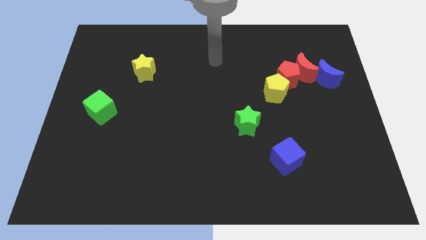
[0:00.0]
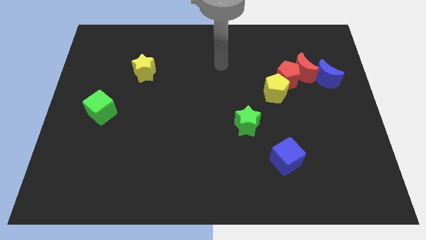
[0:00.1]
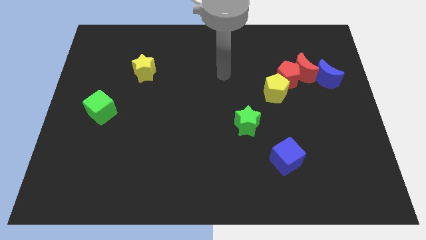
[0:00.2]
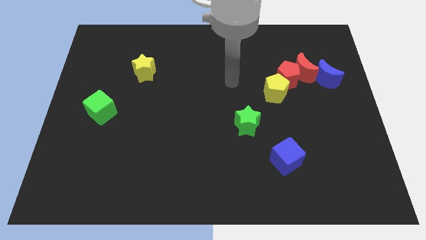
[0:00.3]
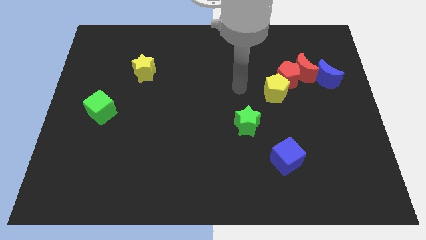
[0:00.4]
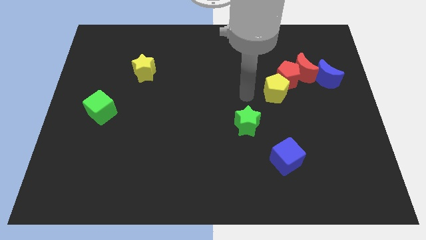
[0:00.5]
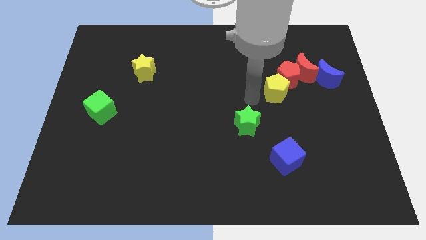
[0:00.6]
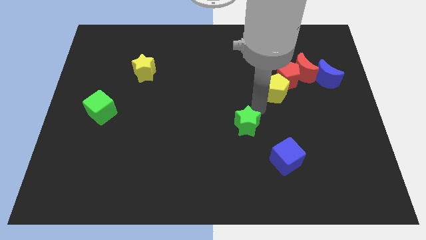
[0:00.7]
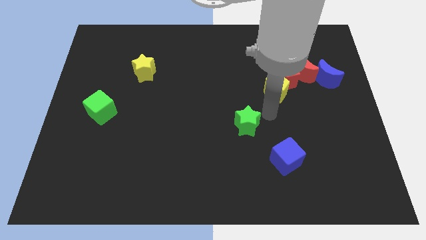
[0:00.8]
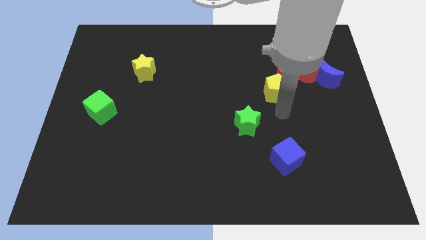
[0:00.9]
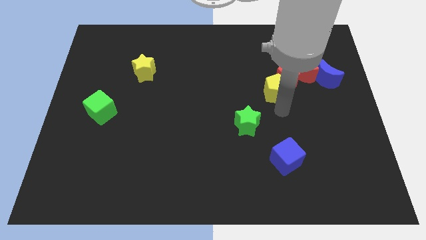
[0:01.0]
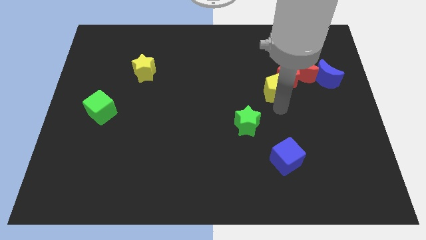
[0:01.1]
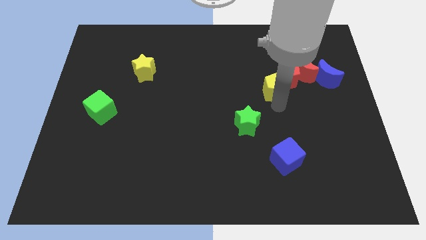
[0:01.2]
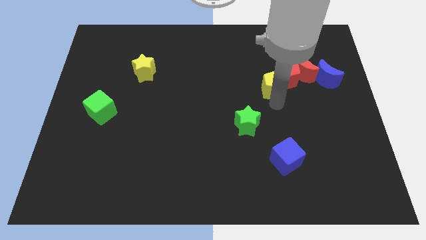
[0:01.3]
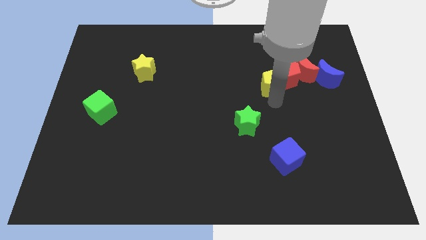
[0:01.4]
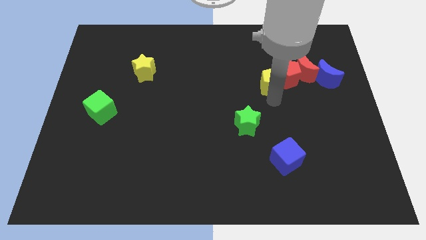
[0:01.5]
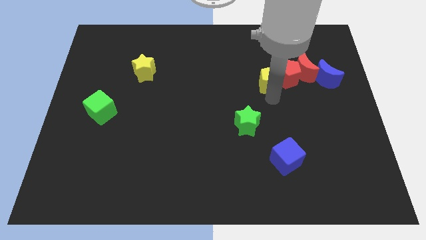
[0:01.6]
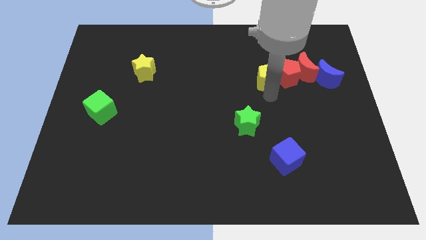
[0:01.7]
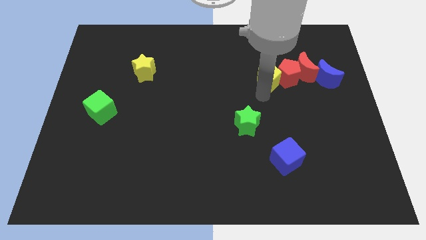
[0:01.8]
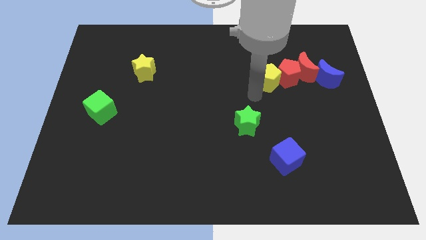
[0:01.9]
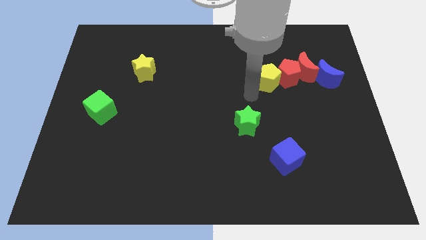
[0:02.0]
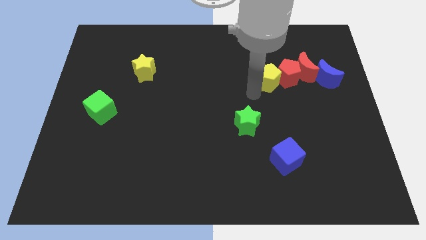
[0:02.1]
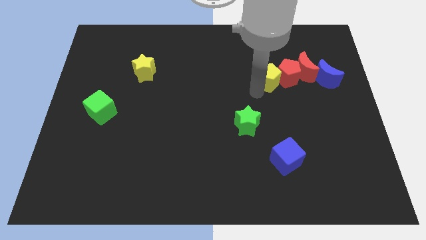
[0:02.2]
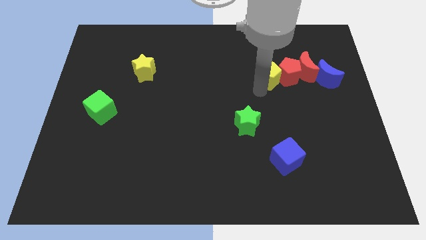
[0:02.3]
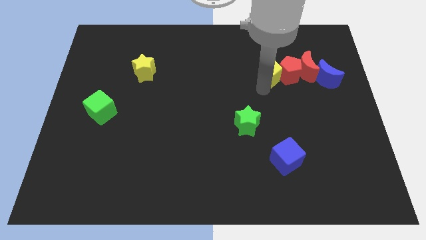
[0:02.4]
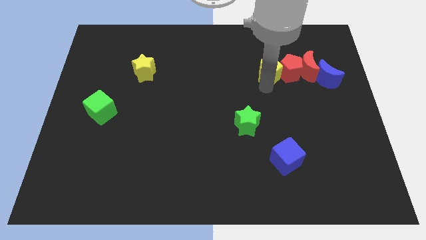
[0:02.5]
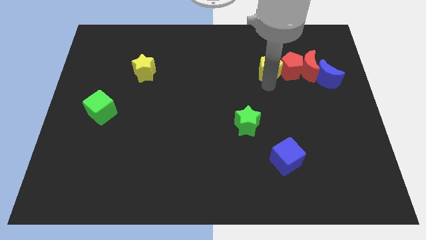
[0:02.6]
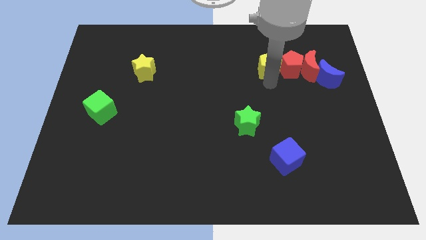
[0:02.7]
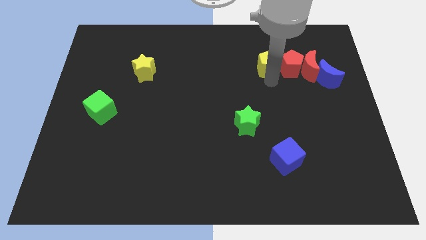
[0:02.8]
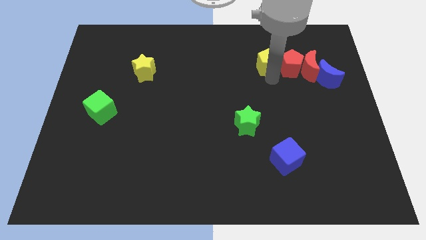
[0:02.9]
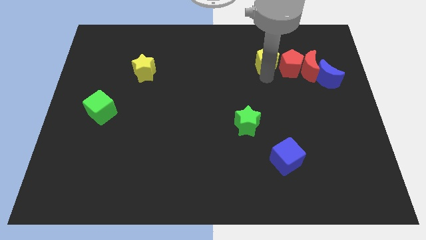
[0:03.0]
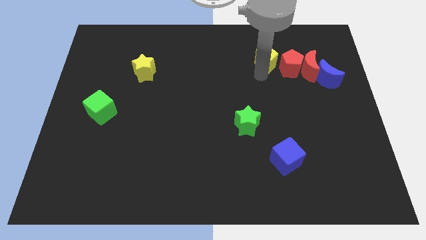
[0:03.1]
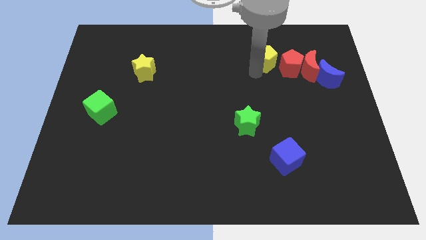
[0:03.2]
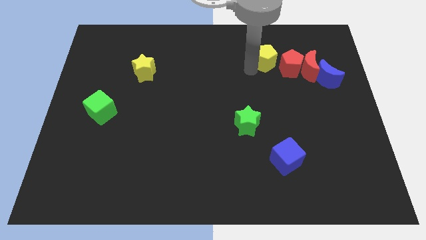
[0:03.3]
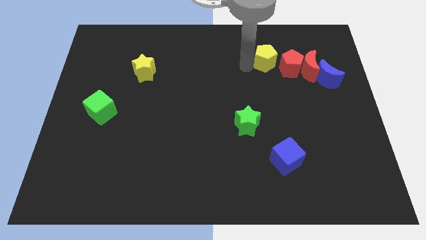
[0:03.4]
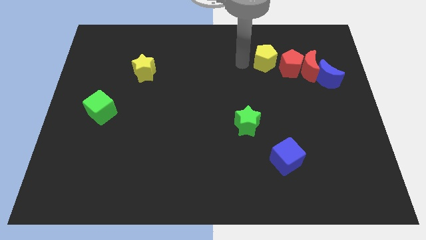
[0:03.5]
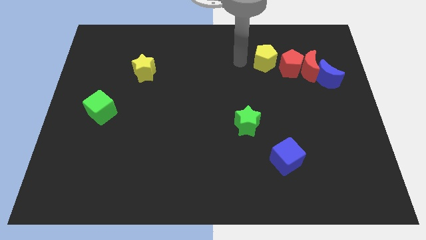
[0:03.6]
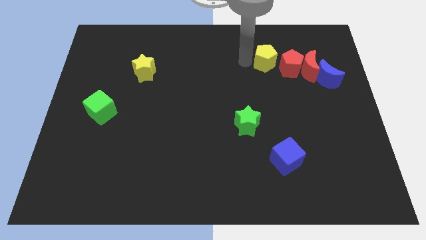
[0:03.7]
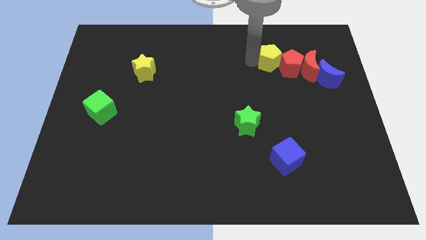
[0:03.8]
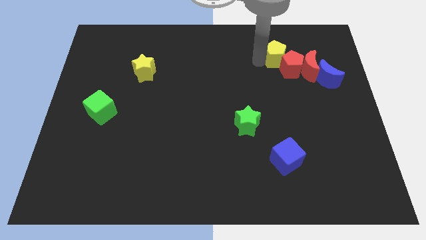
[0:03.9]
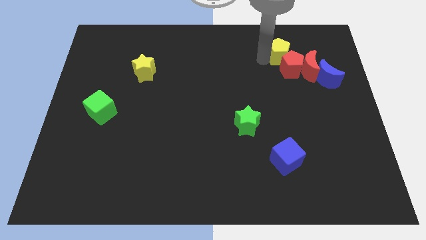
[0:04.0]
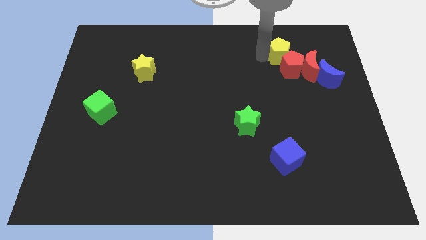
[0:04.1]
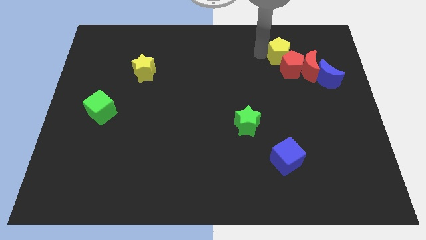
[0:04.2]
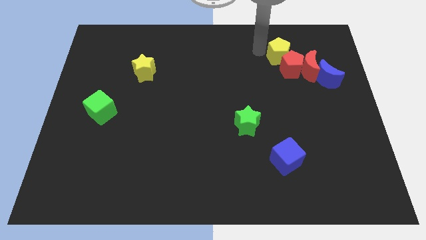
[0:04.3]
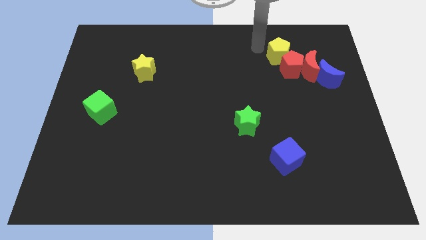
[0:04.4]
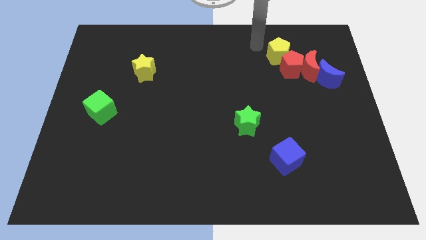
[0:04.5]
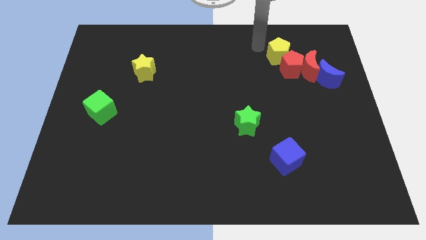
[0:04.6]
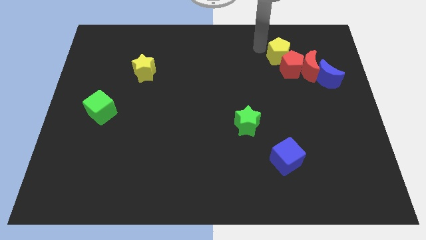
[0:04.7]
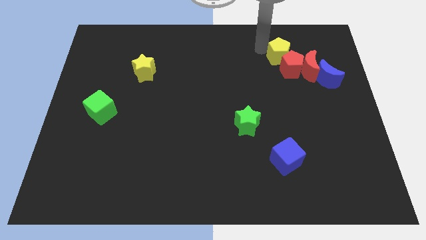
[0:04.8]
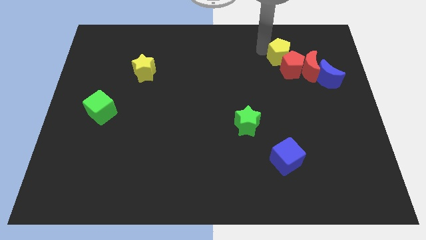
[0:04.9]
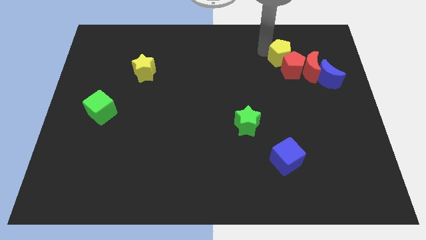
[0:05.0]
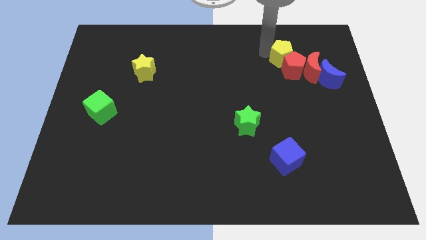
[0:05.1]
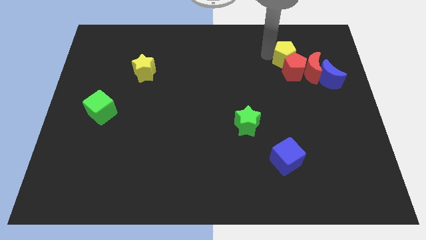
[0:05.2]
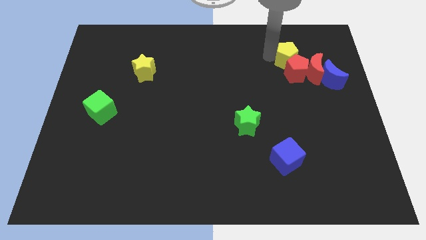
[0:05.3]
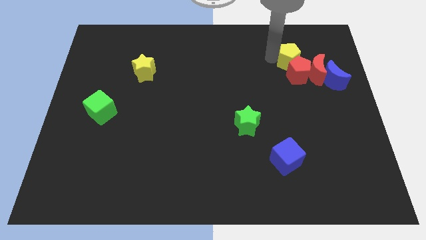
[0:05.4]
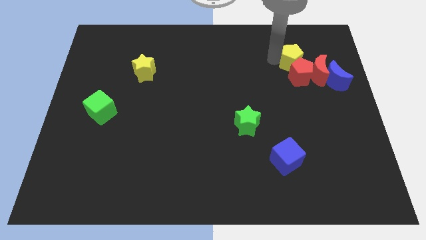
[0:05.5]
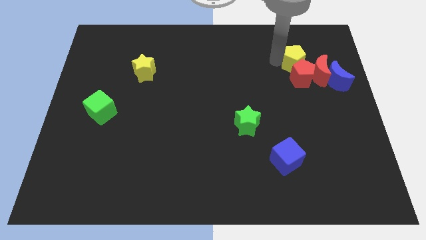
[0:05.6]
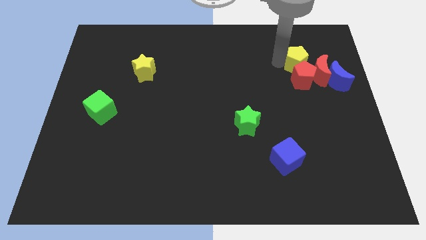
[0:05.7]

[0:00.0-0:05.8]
put the yellow pentagon to the top right of the red pentagon
